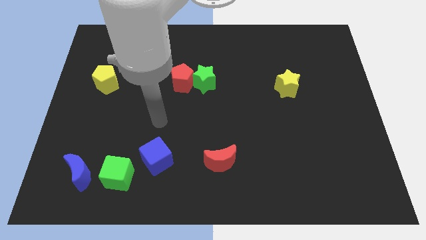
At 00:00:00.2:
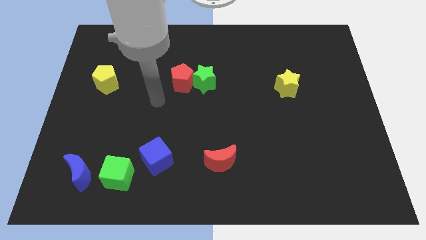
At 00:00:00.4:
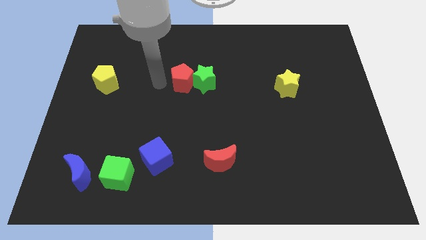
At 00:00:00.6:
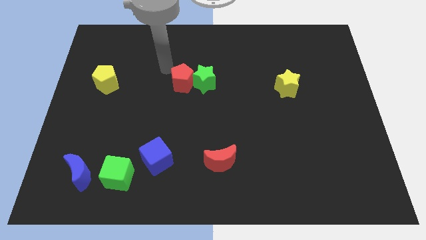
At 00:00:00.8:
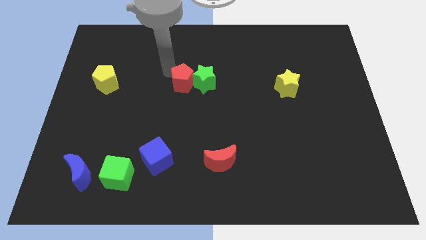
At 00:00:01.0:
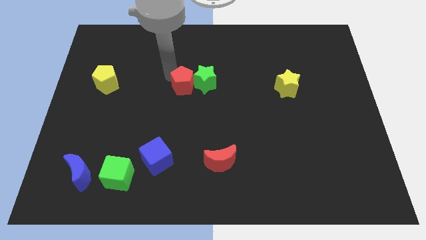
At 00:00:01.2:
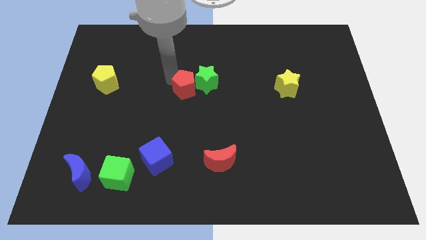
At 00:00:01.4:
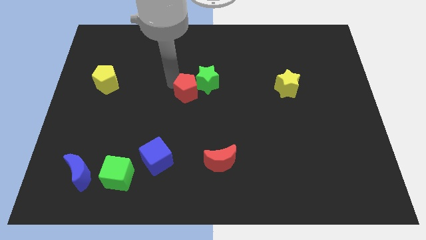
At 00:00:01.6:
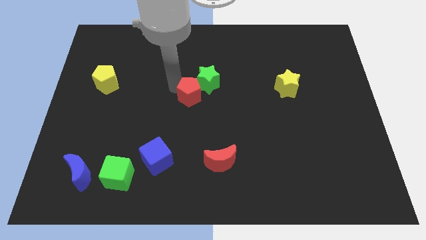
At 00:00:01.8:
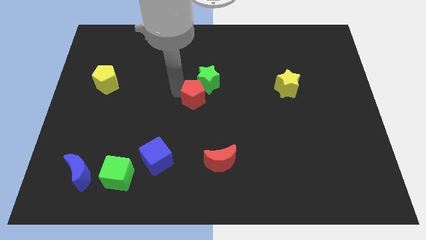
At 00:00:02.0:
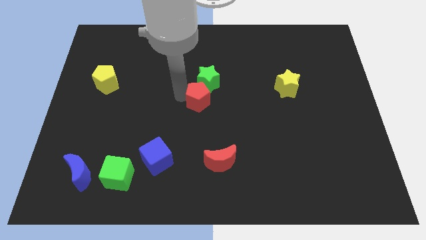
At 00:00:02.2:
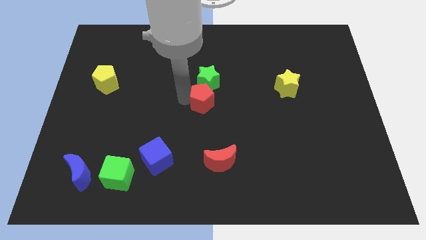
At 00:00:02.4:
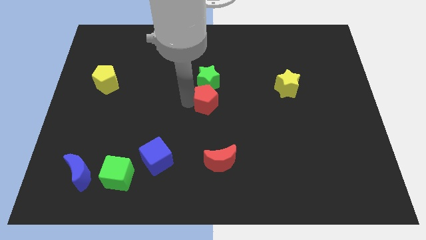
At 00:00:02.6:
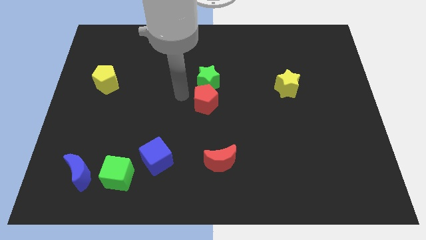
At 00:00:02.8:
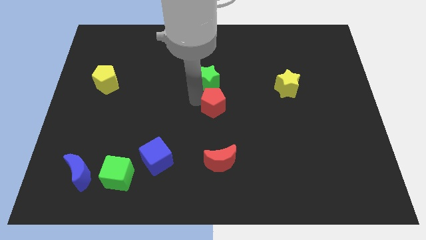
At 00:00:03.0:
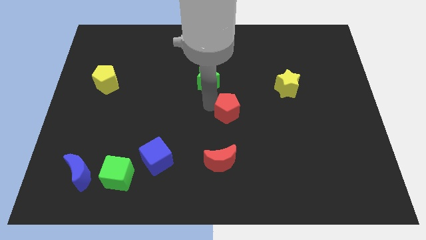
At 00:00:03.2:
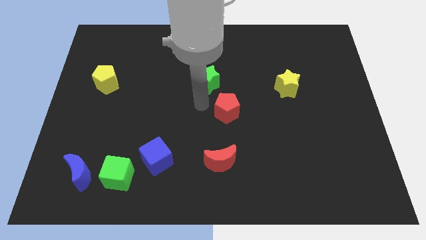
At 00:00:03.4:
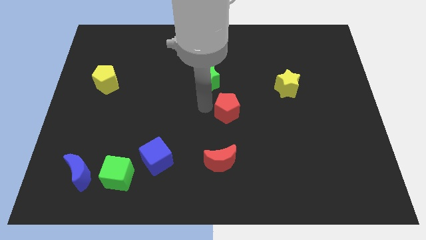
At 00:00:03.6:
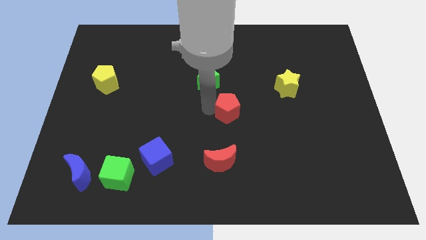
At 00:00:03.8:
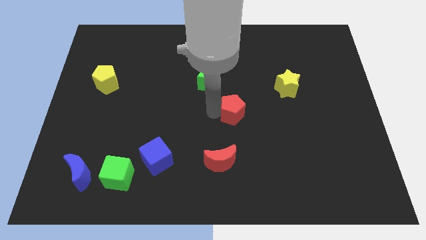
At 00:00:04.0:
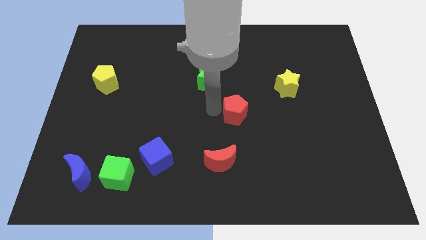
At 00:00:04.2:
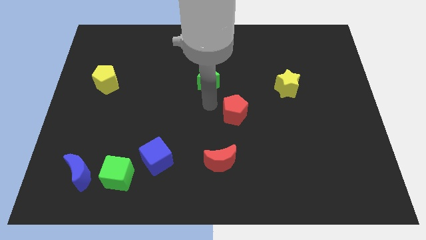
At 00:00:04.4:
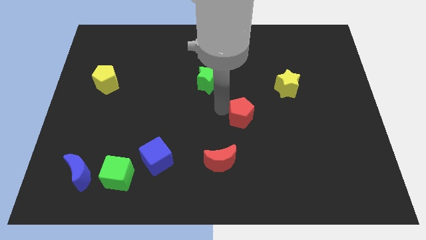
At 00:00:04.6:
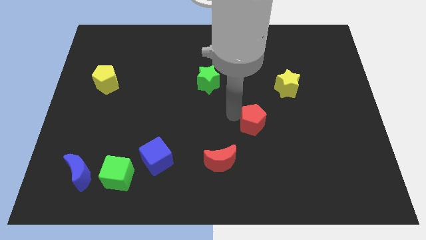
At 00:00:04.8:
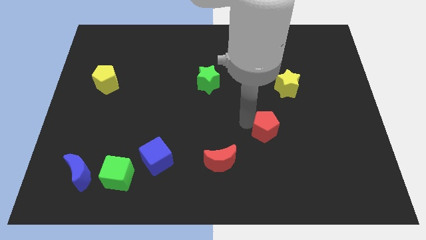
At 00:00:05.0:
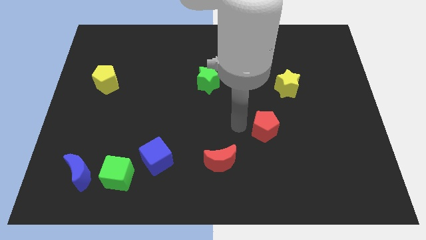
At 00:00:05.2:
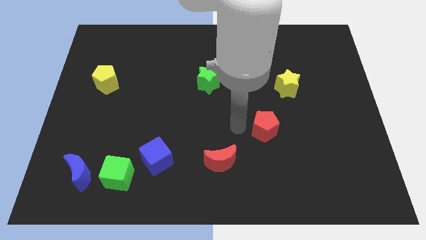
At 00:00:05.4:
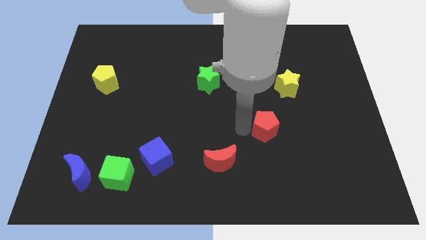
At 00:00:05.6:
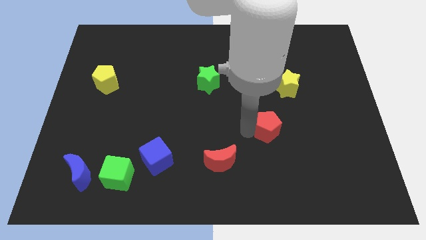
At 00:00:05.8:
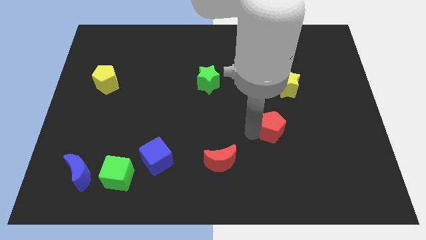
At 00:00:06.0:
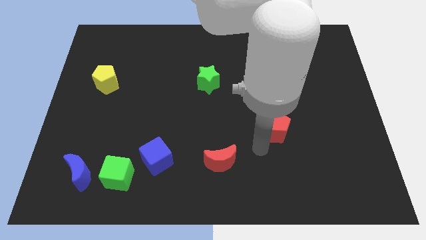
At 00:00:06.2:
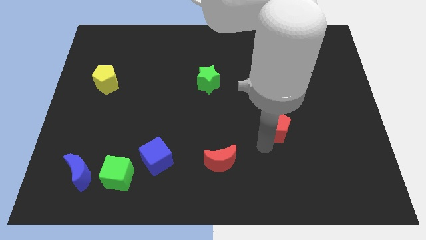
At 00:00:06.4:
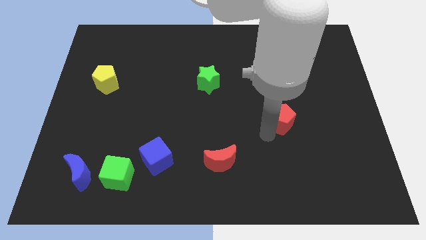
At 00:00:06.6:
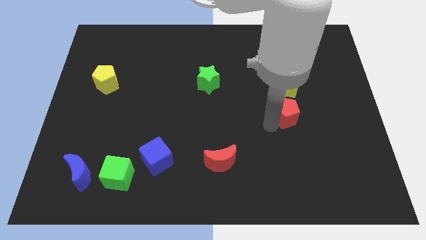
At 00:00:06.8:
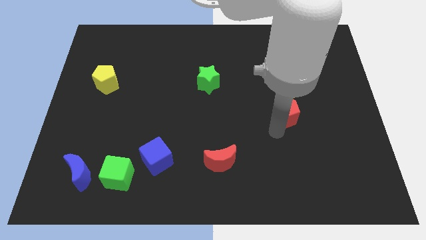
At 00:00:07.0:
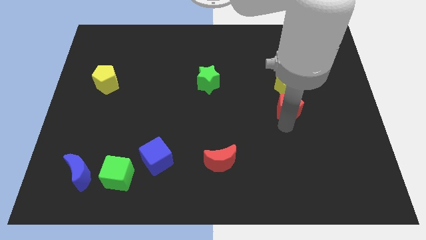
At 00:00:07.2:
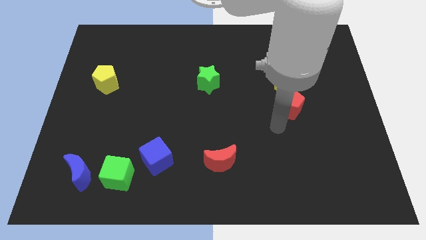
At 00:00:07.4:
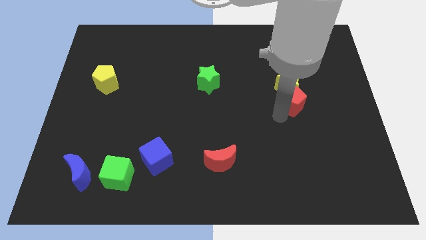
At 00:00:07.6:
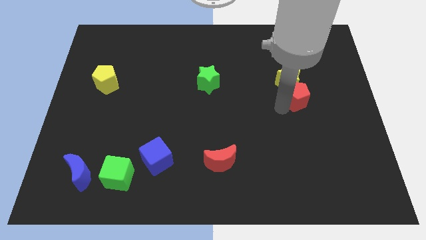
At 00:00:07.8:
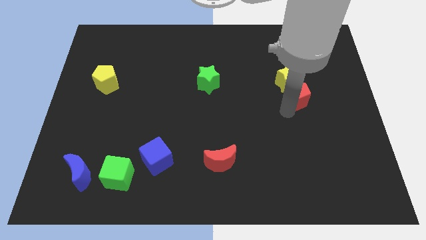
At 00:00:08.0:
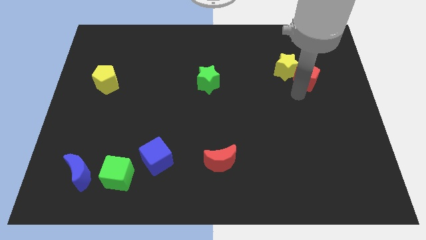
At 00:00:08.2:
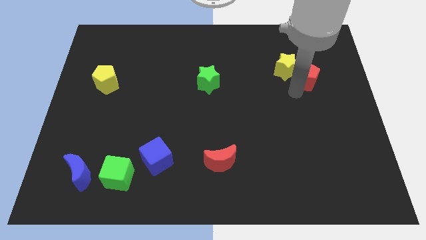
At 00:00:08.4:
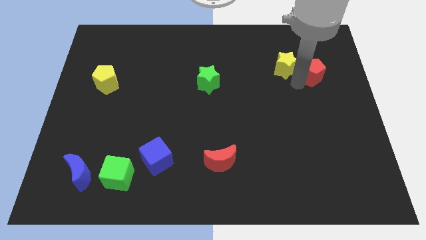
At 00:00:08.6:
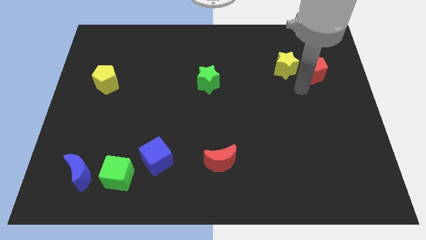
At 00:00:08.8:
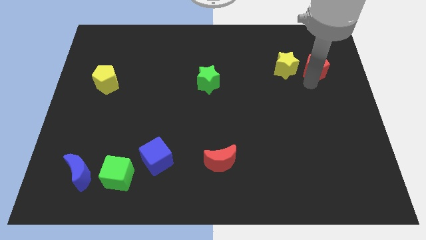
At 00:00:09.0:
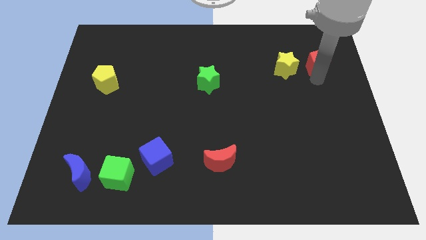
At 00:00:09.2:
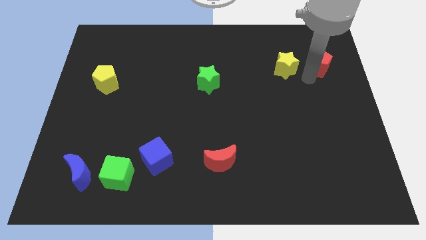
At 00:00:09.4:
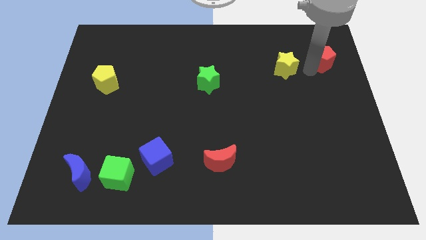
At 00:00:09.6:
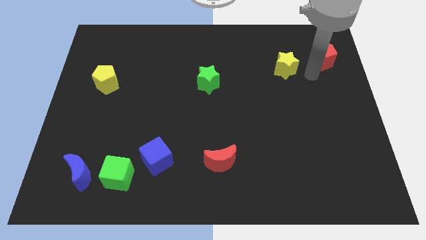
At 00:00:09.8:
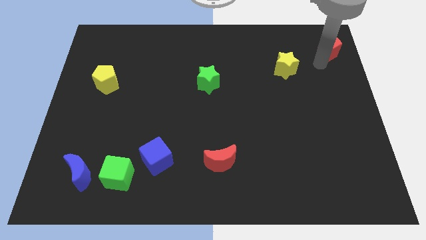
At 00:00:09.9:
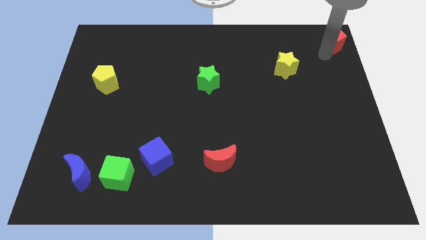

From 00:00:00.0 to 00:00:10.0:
push the red pentagon to the top right corner

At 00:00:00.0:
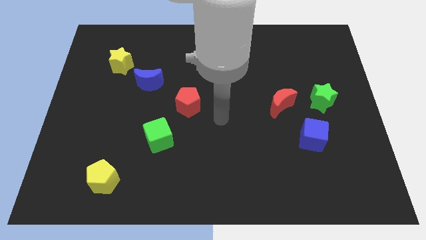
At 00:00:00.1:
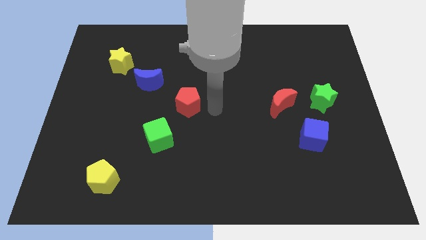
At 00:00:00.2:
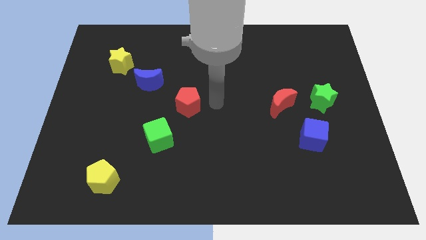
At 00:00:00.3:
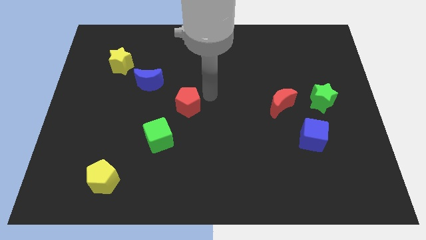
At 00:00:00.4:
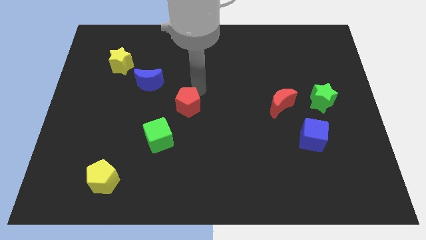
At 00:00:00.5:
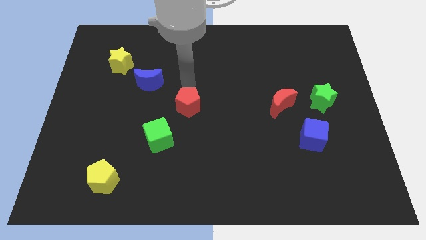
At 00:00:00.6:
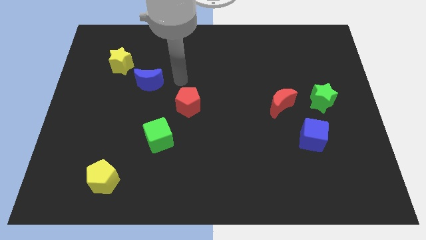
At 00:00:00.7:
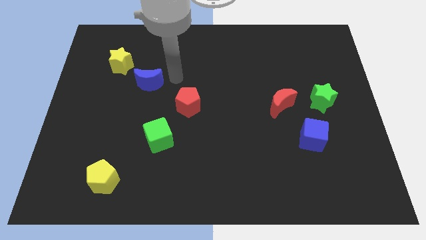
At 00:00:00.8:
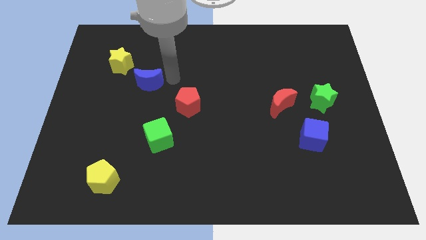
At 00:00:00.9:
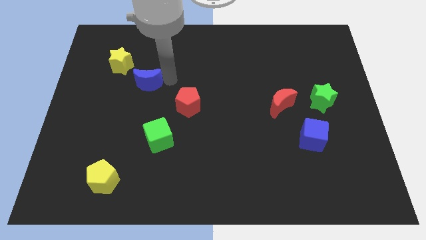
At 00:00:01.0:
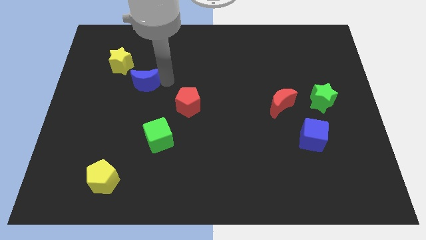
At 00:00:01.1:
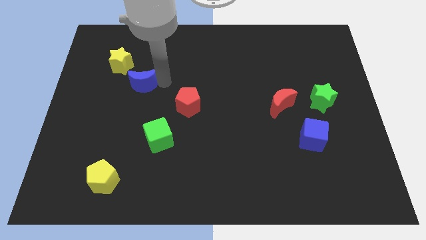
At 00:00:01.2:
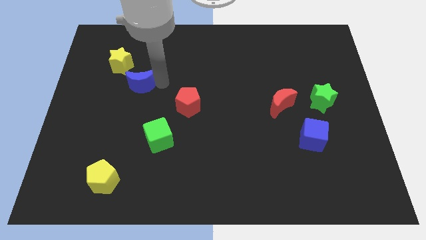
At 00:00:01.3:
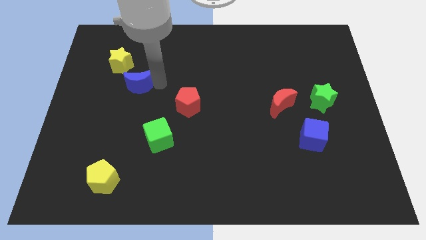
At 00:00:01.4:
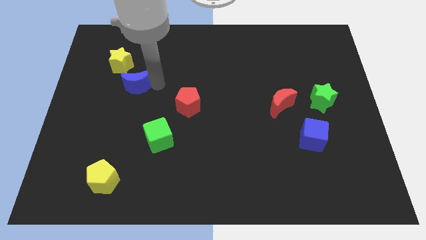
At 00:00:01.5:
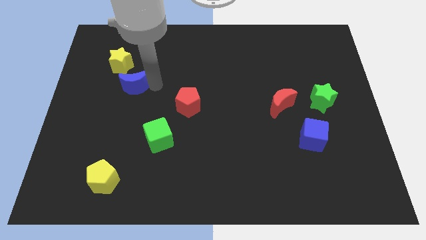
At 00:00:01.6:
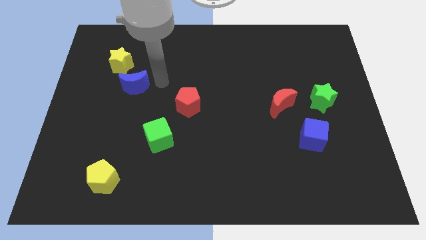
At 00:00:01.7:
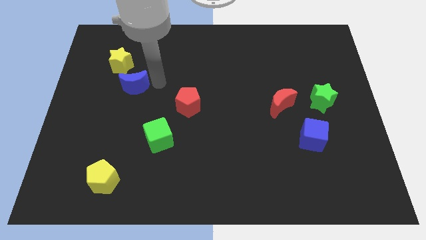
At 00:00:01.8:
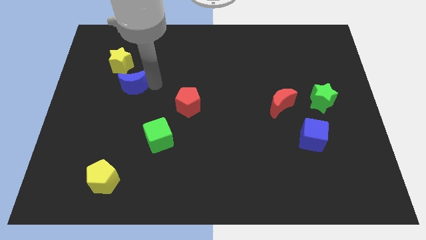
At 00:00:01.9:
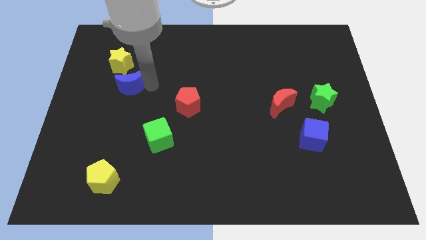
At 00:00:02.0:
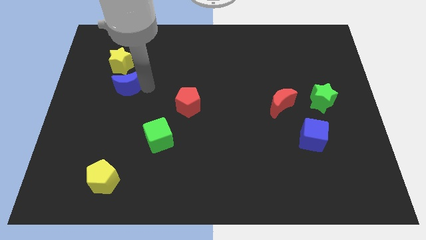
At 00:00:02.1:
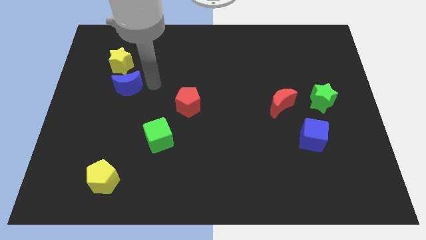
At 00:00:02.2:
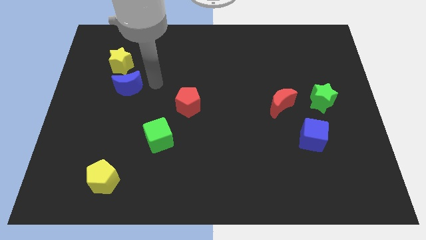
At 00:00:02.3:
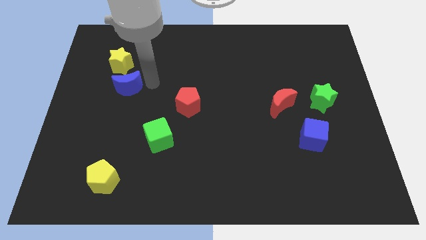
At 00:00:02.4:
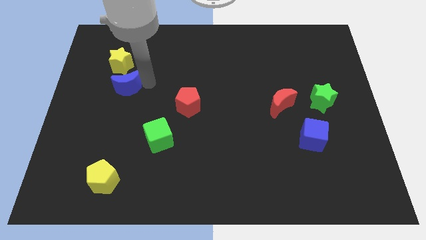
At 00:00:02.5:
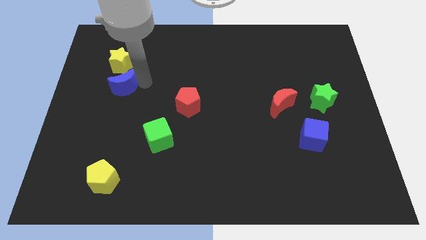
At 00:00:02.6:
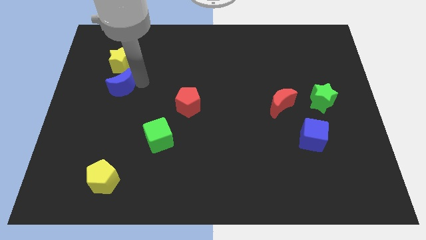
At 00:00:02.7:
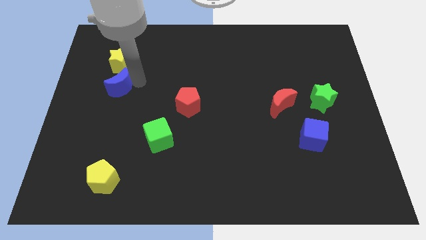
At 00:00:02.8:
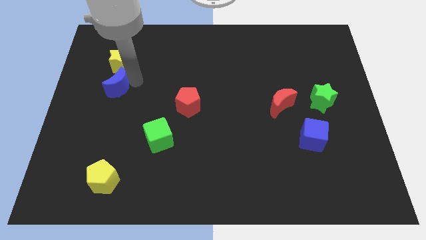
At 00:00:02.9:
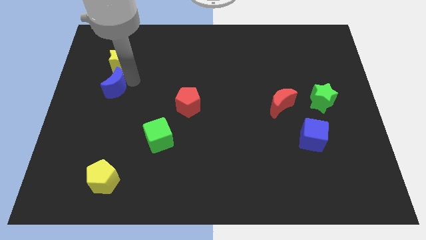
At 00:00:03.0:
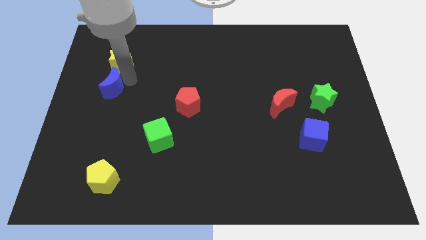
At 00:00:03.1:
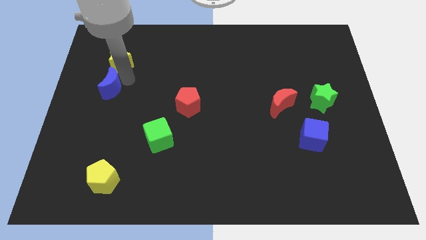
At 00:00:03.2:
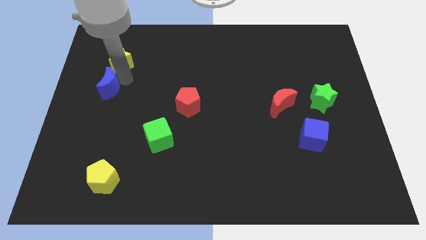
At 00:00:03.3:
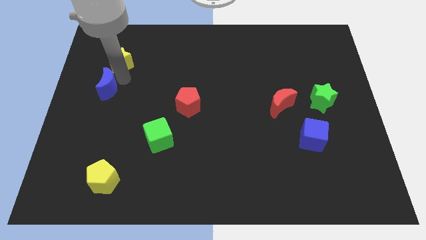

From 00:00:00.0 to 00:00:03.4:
put the blue moon to the center left
